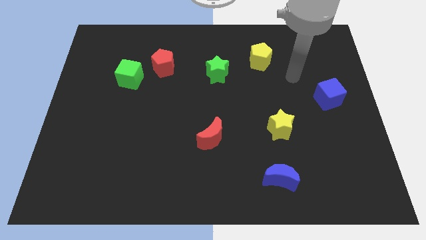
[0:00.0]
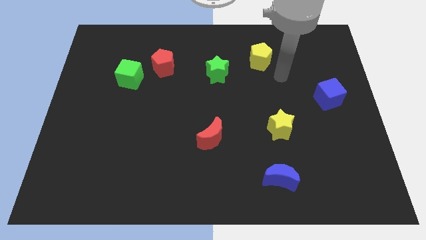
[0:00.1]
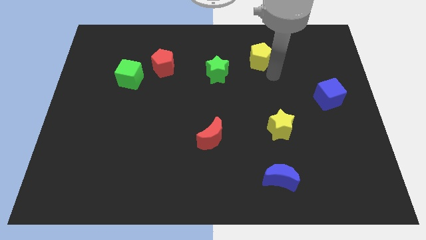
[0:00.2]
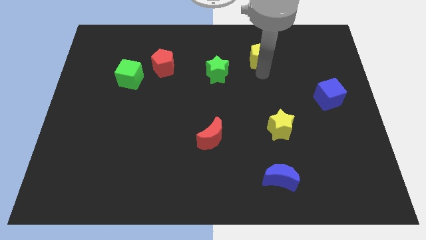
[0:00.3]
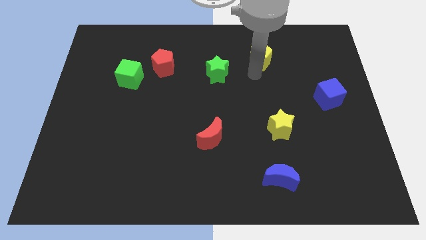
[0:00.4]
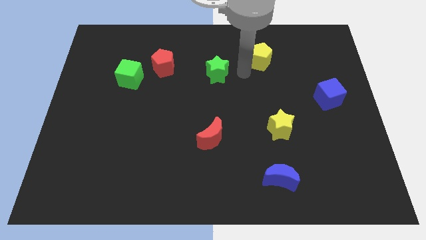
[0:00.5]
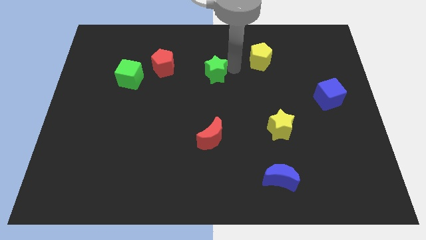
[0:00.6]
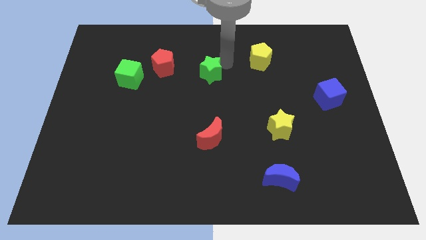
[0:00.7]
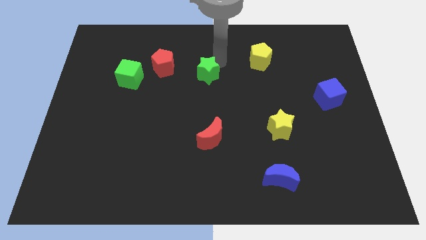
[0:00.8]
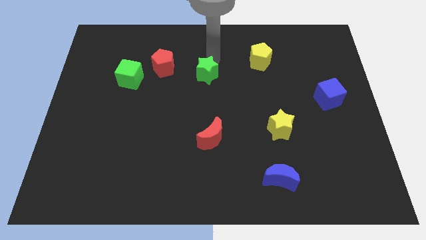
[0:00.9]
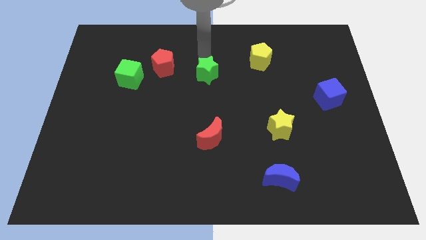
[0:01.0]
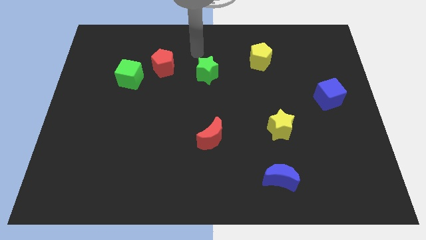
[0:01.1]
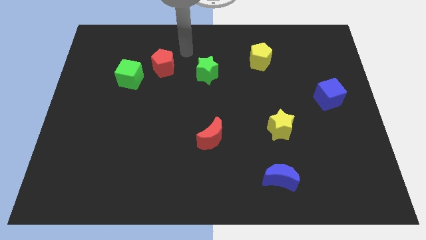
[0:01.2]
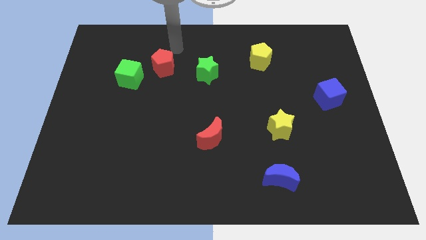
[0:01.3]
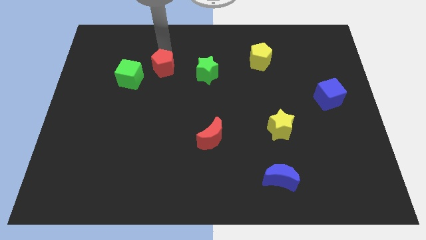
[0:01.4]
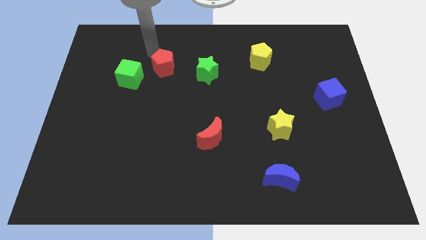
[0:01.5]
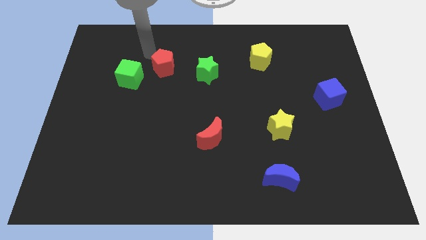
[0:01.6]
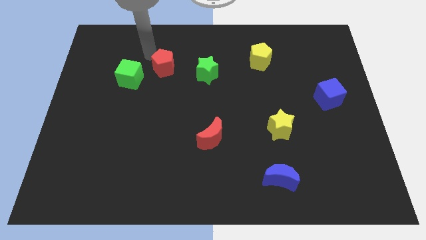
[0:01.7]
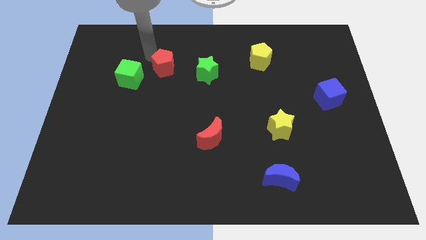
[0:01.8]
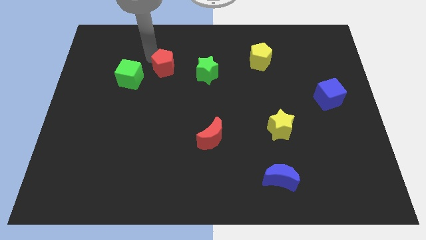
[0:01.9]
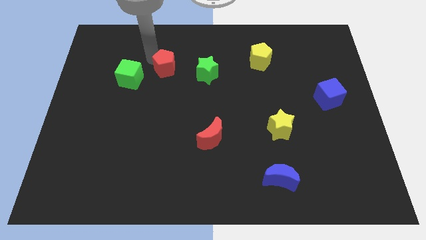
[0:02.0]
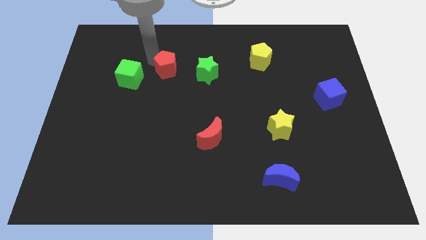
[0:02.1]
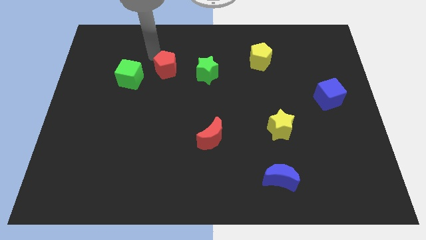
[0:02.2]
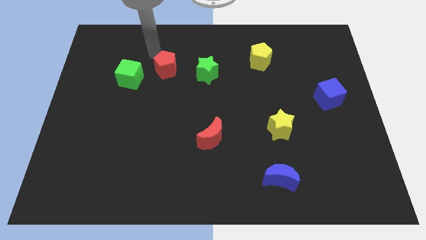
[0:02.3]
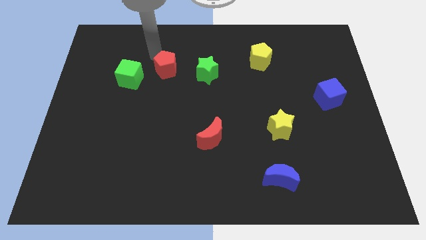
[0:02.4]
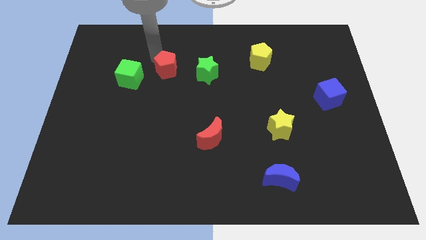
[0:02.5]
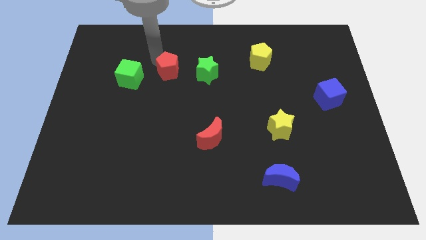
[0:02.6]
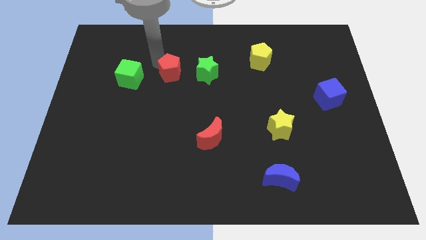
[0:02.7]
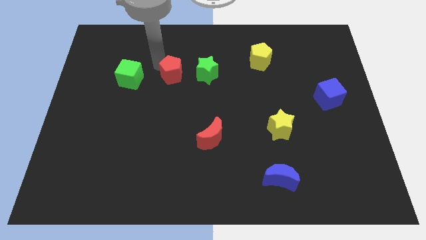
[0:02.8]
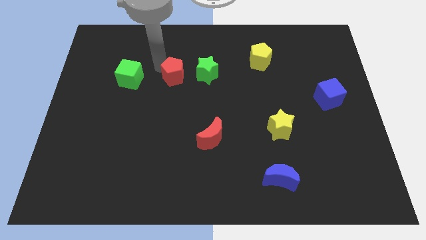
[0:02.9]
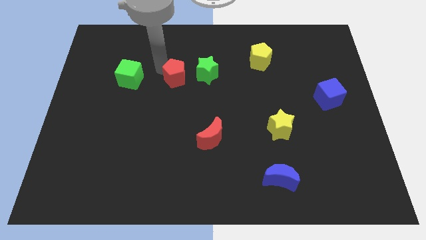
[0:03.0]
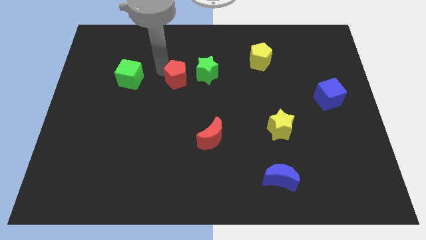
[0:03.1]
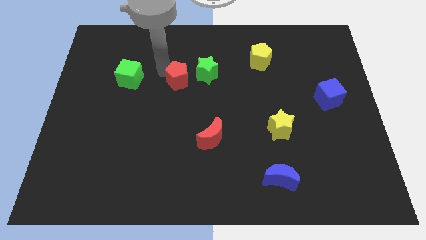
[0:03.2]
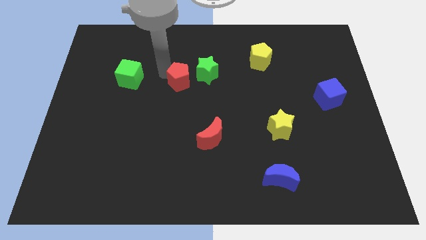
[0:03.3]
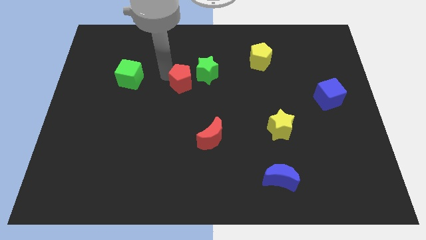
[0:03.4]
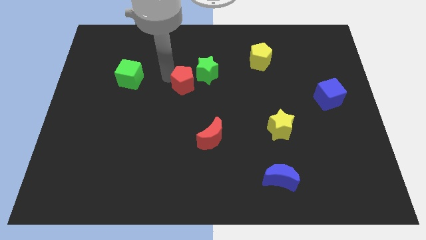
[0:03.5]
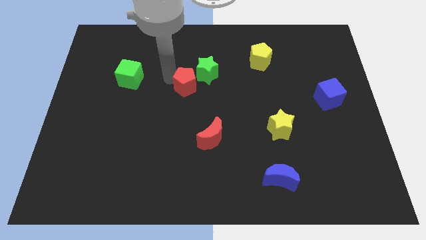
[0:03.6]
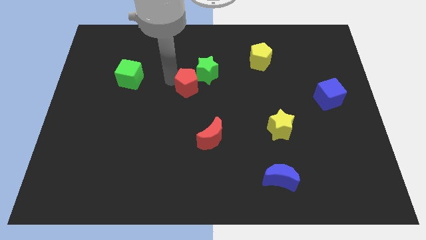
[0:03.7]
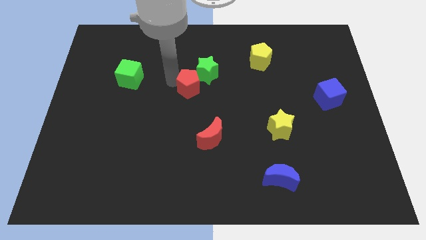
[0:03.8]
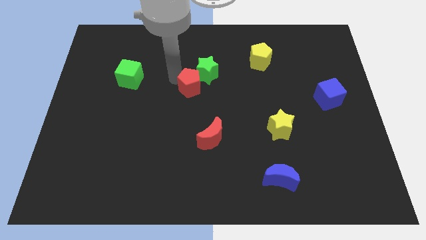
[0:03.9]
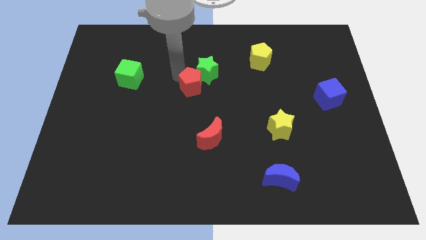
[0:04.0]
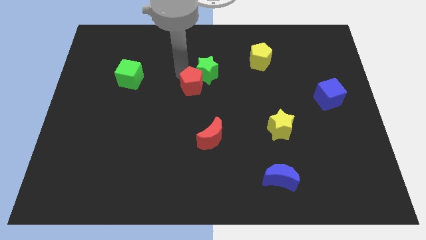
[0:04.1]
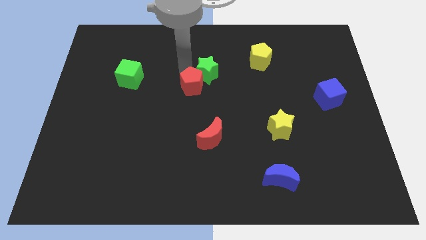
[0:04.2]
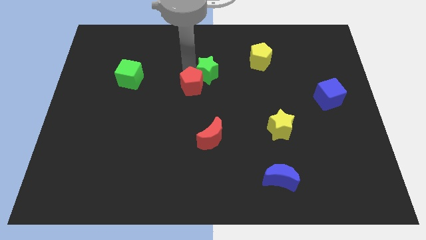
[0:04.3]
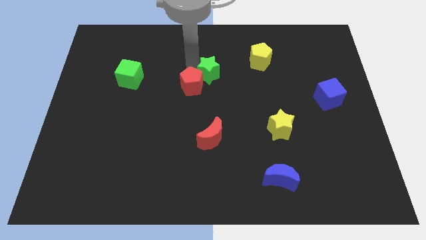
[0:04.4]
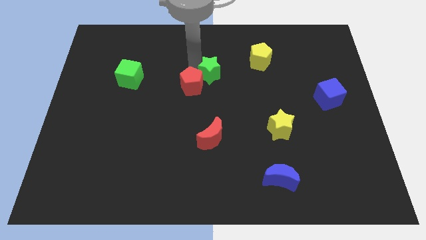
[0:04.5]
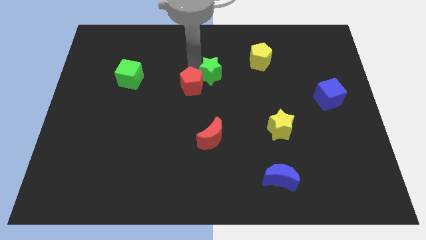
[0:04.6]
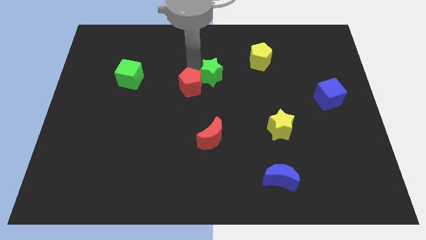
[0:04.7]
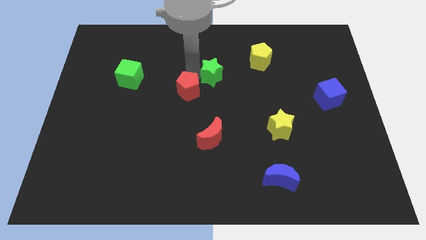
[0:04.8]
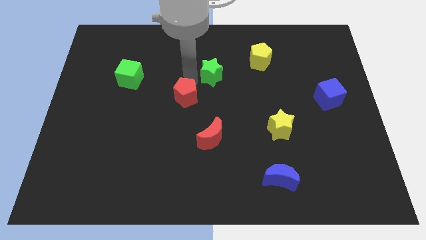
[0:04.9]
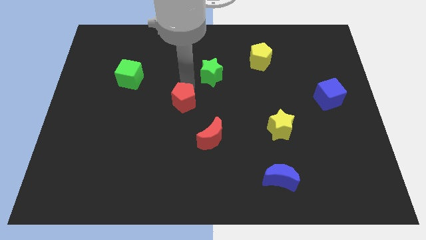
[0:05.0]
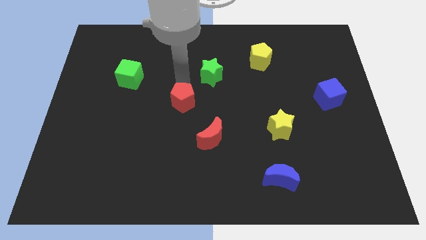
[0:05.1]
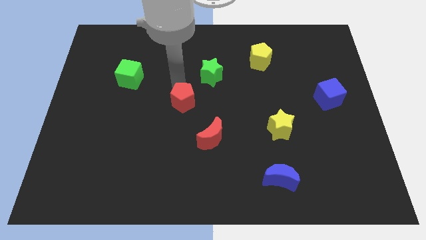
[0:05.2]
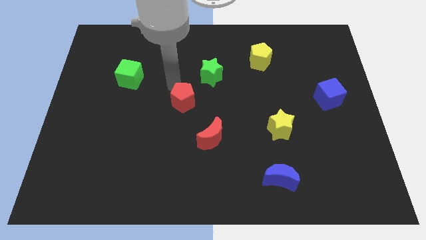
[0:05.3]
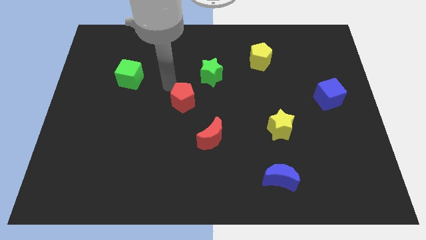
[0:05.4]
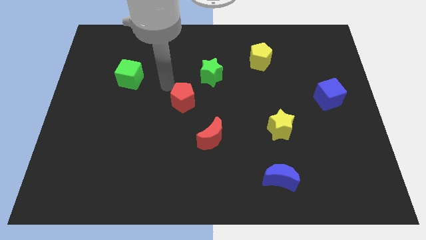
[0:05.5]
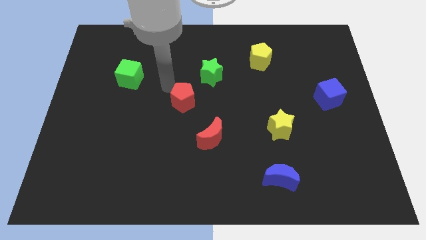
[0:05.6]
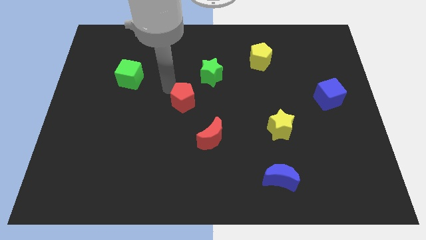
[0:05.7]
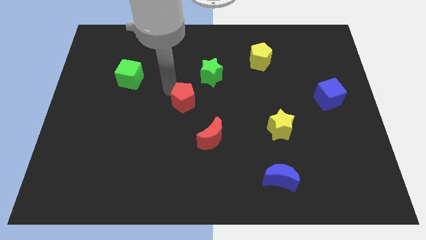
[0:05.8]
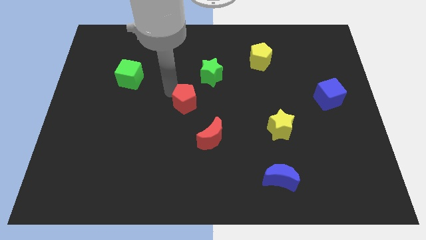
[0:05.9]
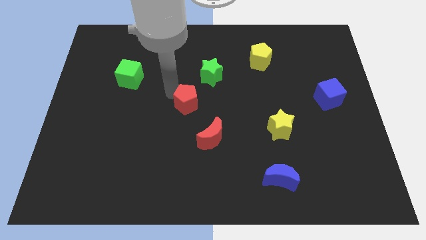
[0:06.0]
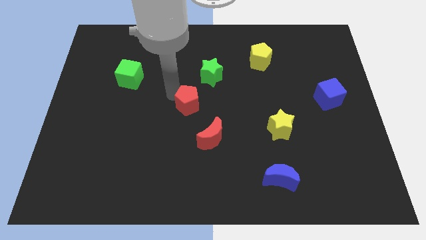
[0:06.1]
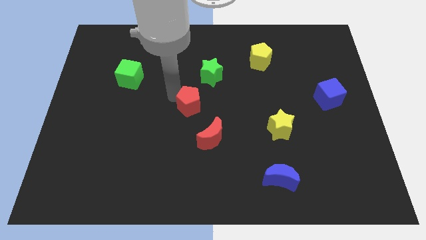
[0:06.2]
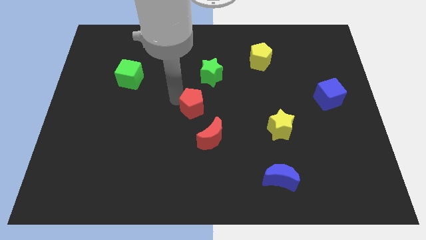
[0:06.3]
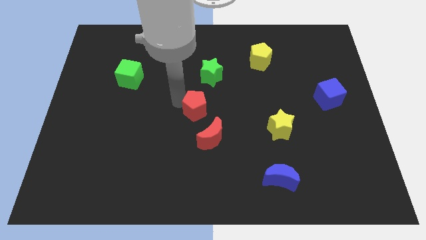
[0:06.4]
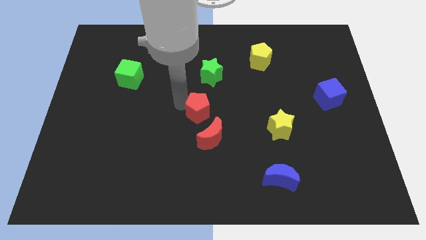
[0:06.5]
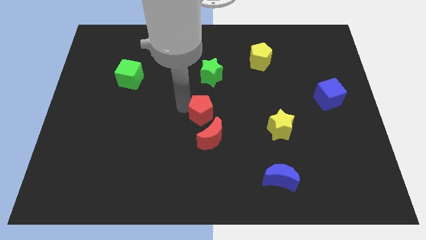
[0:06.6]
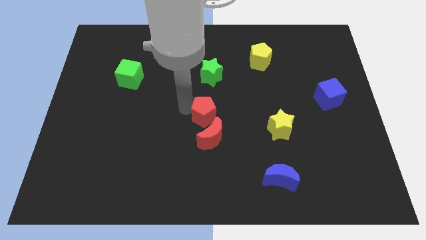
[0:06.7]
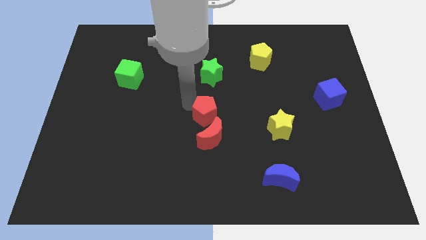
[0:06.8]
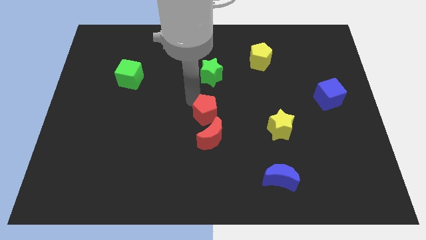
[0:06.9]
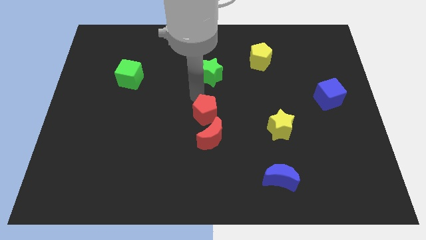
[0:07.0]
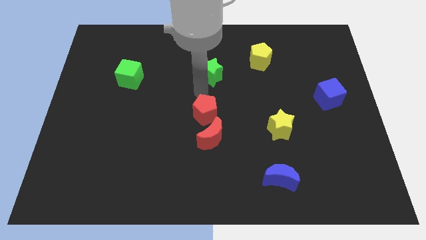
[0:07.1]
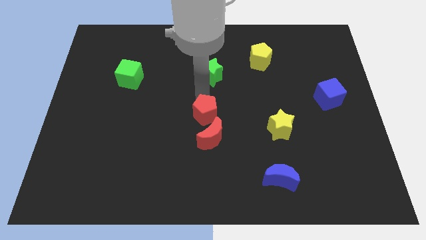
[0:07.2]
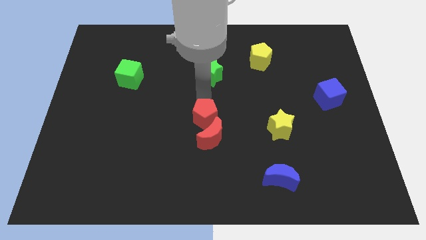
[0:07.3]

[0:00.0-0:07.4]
slide the red pentagon to the red moon
